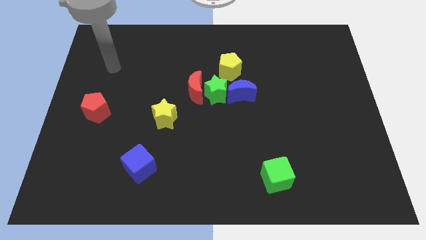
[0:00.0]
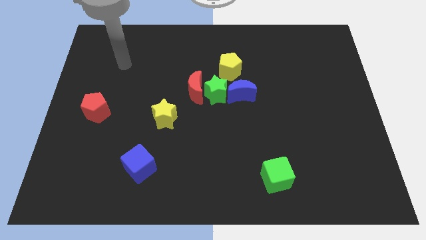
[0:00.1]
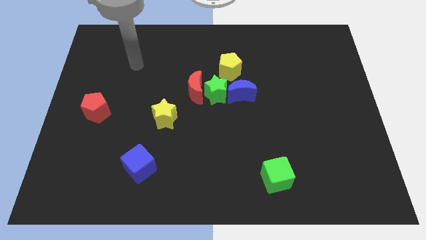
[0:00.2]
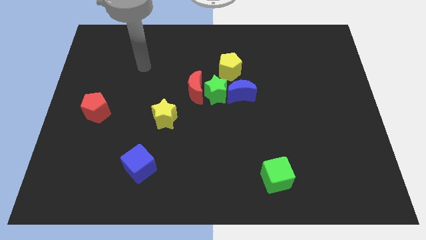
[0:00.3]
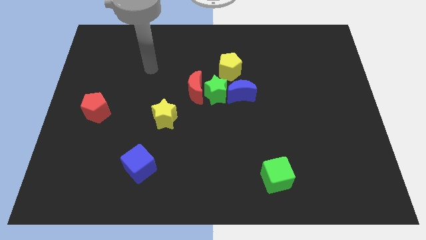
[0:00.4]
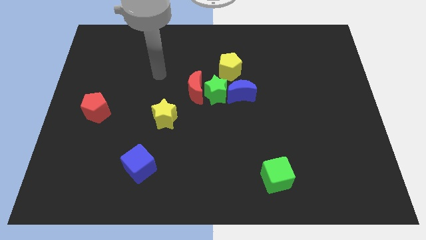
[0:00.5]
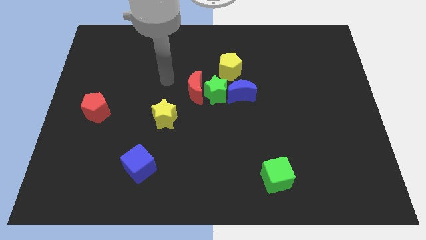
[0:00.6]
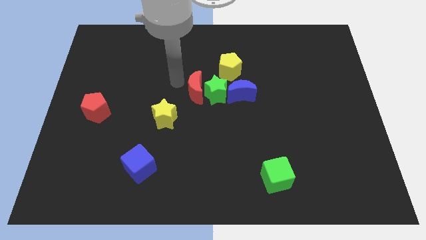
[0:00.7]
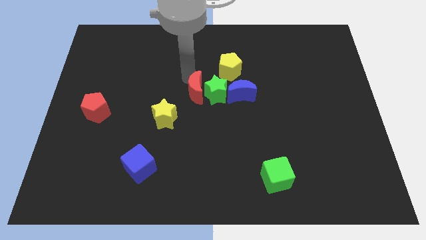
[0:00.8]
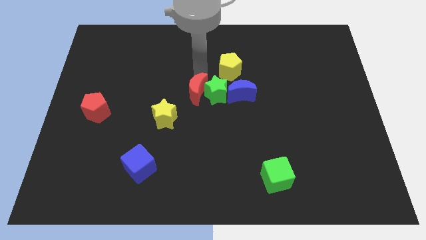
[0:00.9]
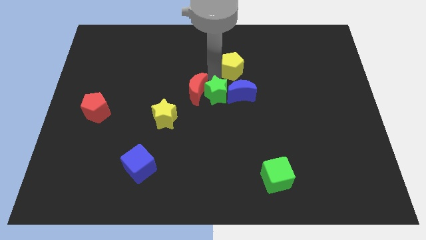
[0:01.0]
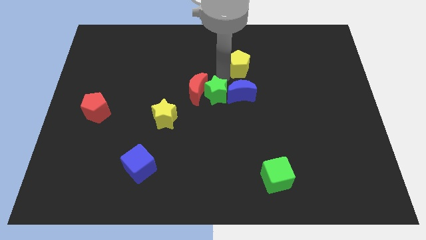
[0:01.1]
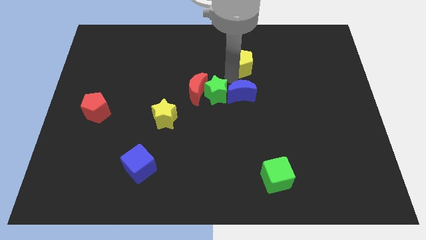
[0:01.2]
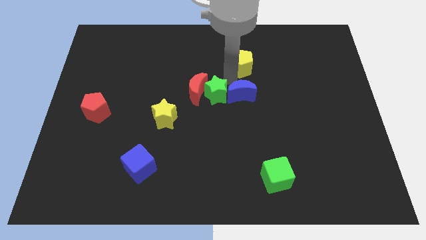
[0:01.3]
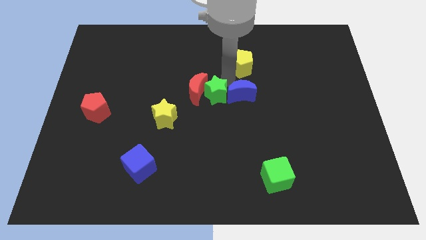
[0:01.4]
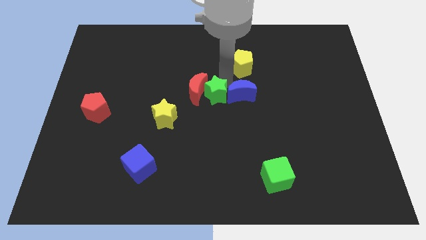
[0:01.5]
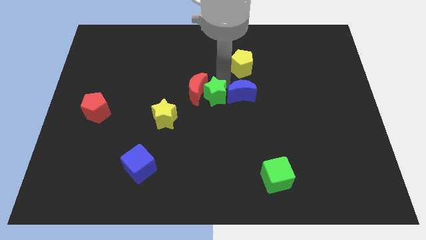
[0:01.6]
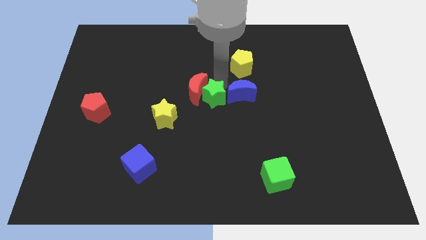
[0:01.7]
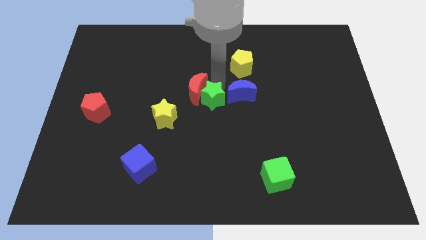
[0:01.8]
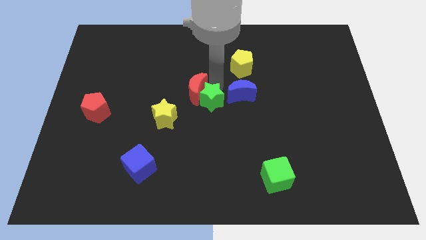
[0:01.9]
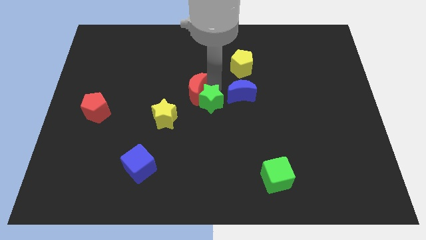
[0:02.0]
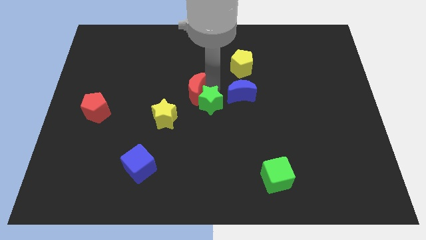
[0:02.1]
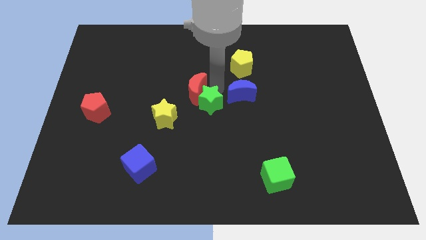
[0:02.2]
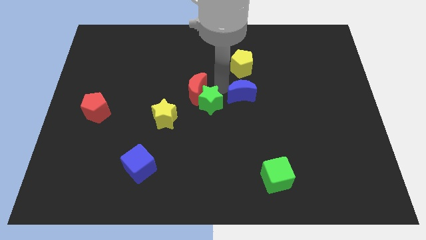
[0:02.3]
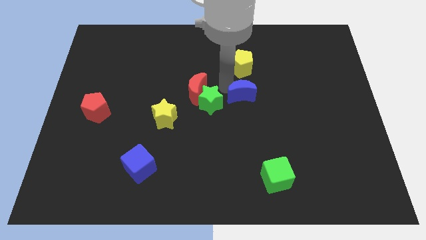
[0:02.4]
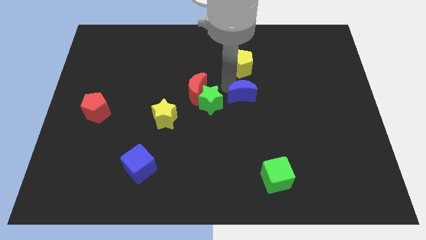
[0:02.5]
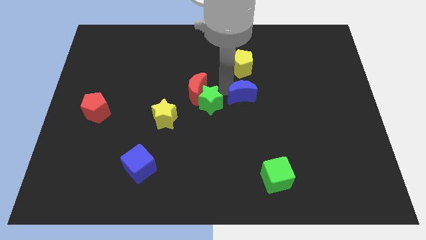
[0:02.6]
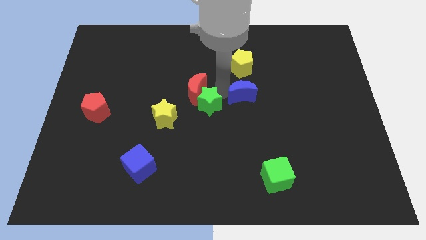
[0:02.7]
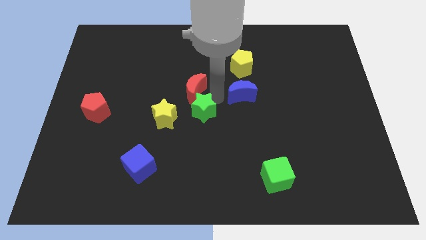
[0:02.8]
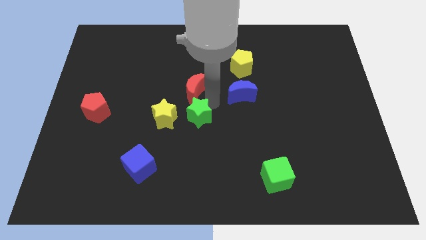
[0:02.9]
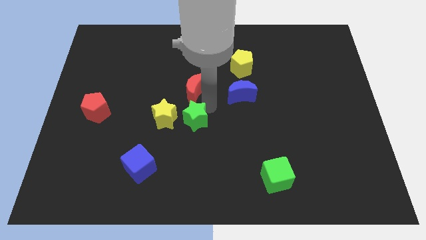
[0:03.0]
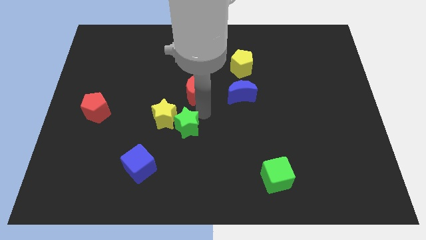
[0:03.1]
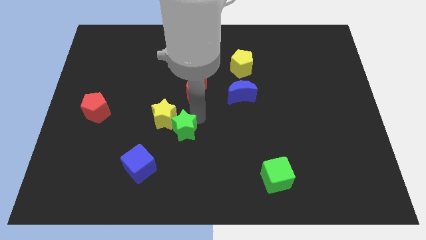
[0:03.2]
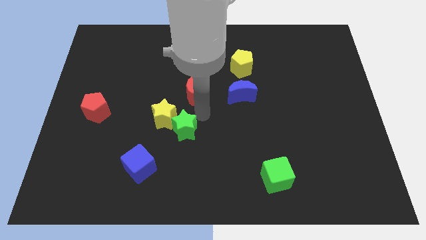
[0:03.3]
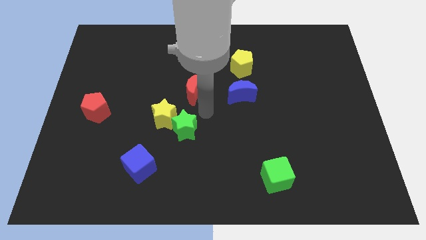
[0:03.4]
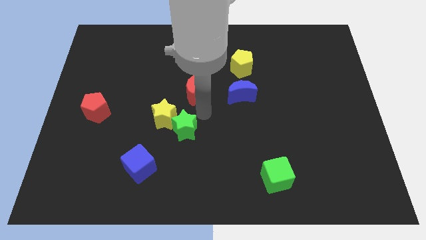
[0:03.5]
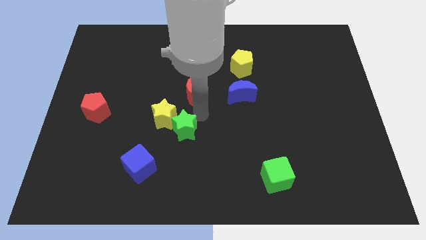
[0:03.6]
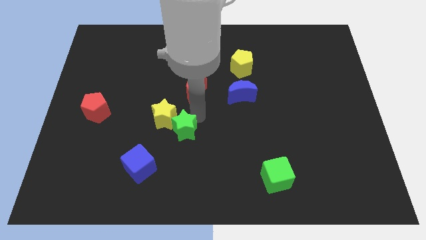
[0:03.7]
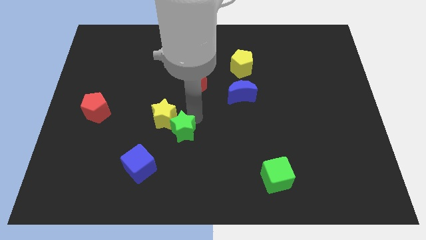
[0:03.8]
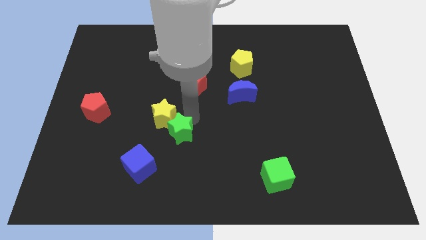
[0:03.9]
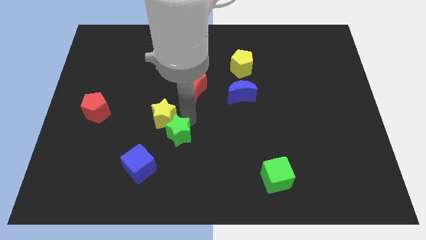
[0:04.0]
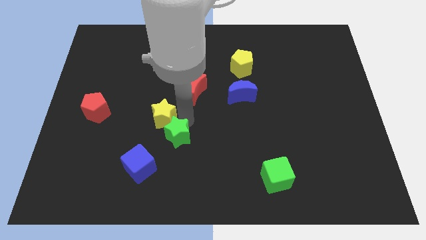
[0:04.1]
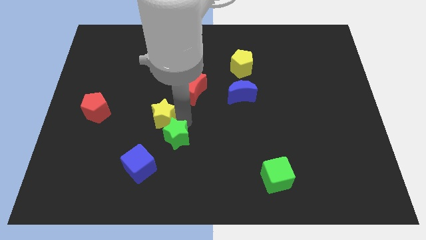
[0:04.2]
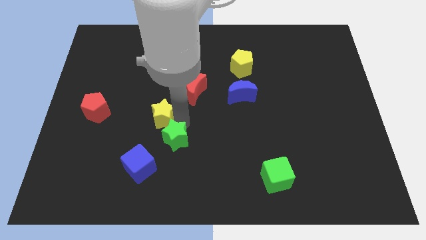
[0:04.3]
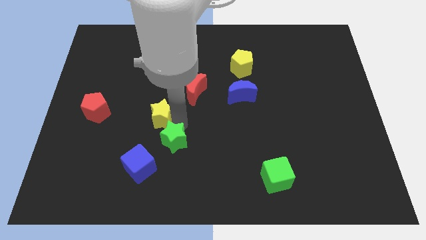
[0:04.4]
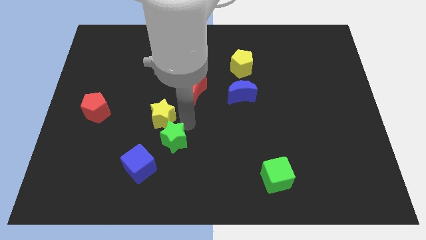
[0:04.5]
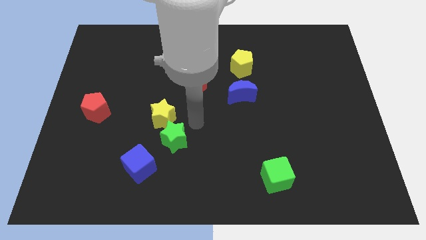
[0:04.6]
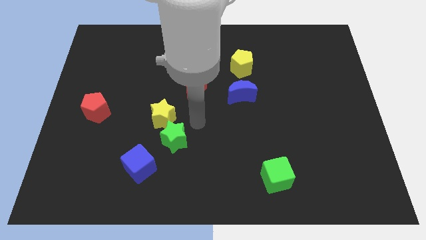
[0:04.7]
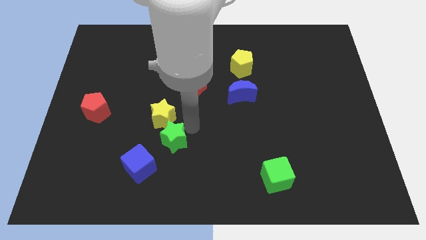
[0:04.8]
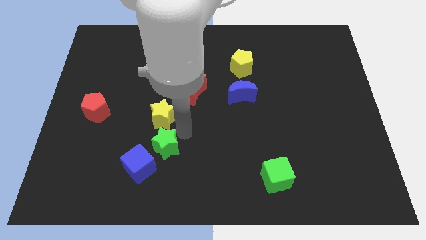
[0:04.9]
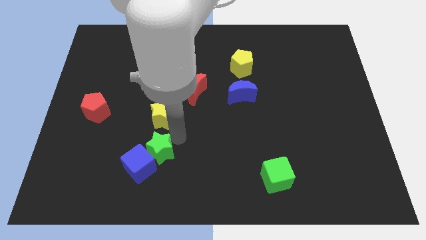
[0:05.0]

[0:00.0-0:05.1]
slide the green star close to the blue cube

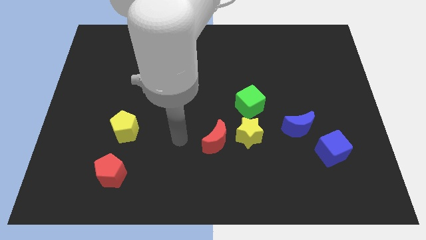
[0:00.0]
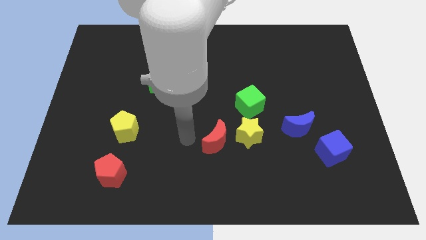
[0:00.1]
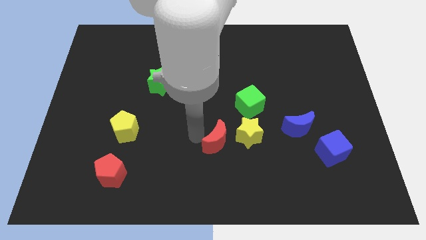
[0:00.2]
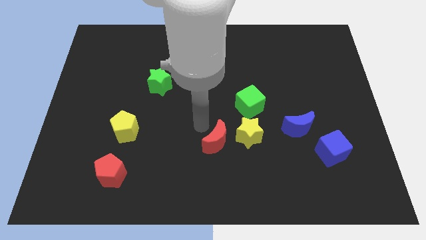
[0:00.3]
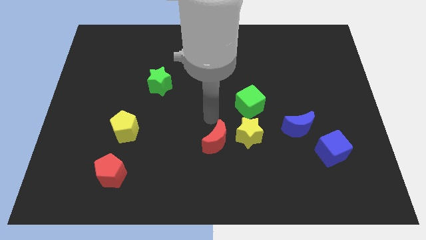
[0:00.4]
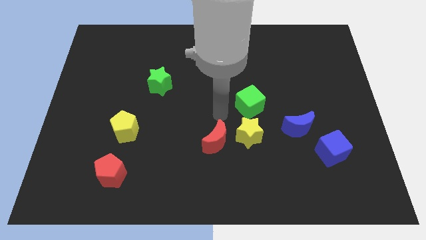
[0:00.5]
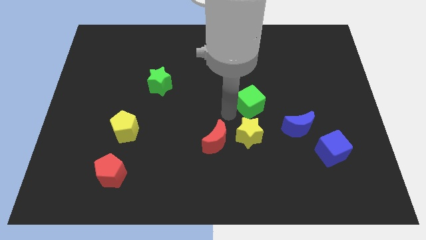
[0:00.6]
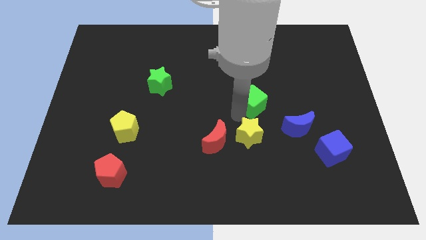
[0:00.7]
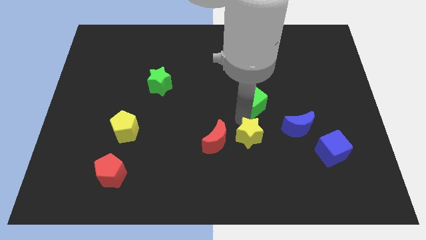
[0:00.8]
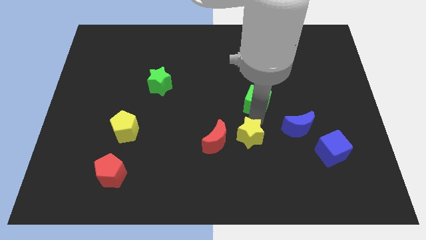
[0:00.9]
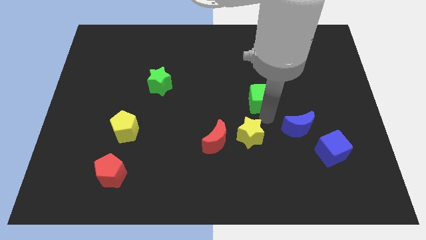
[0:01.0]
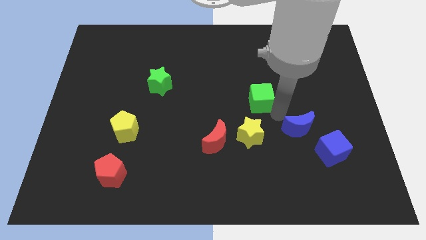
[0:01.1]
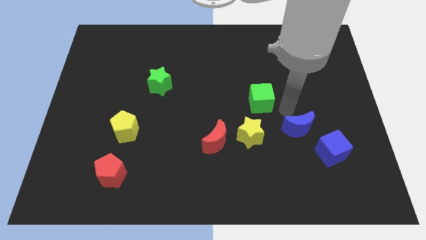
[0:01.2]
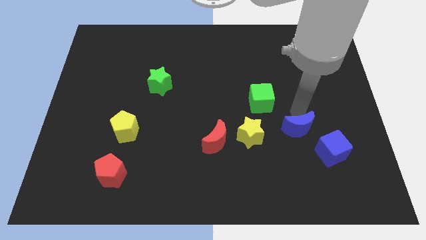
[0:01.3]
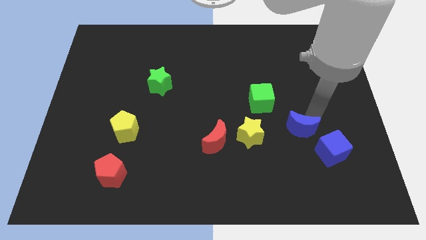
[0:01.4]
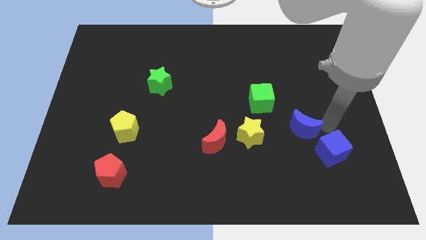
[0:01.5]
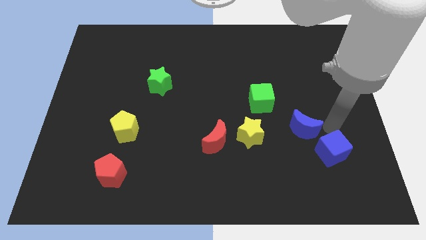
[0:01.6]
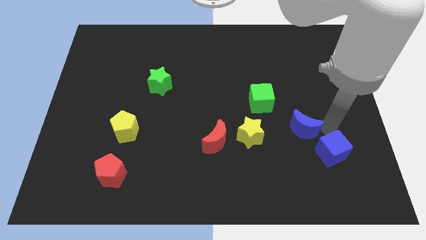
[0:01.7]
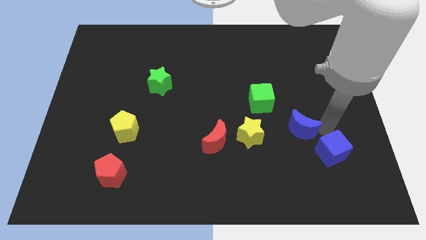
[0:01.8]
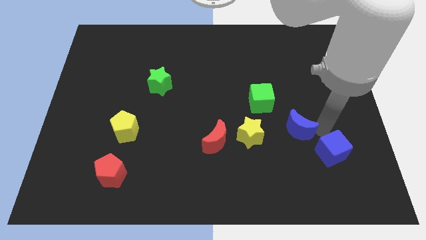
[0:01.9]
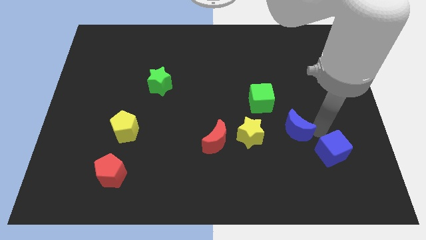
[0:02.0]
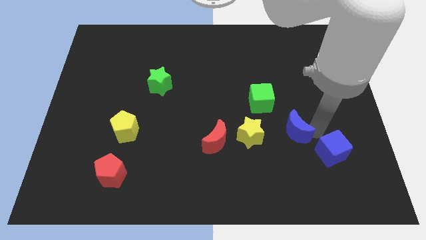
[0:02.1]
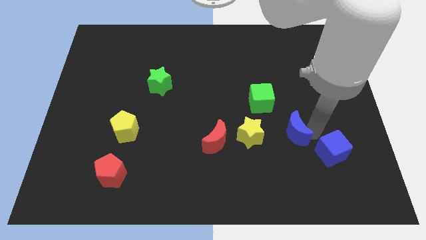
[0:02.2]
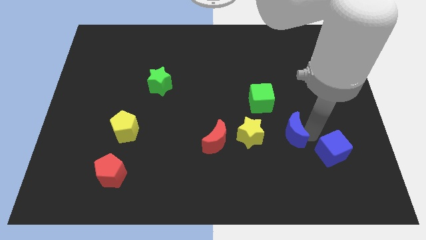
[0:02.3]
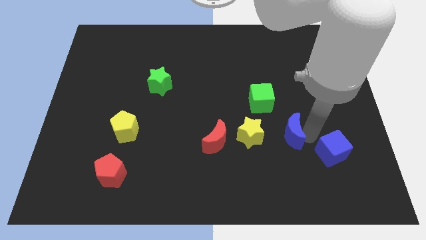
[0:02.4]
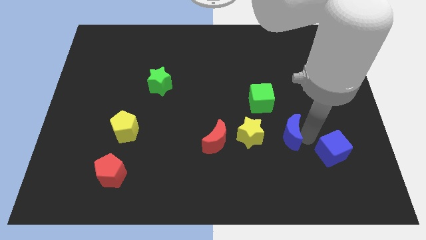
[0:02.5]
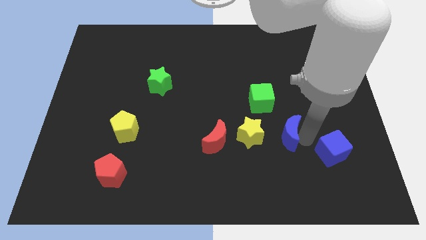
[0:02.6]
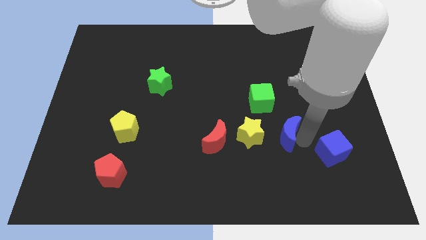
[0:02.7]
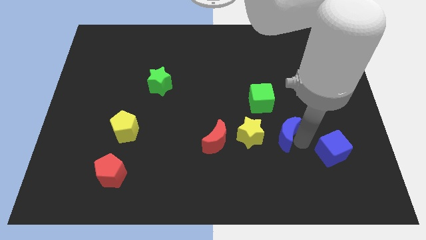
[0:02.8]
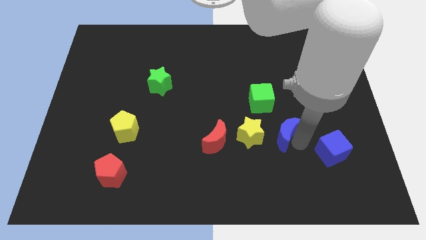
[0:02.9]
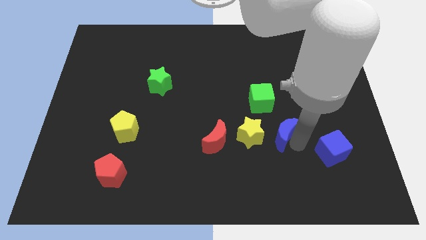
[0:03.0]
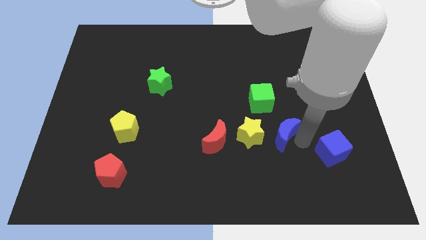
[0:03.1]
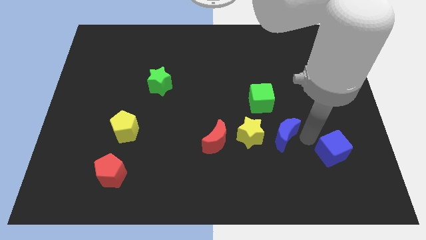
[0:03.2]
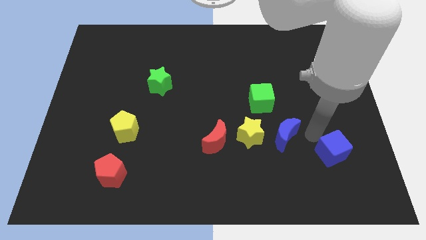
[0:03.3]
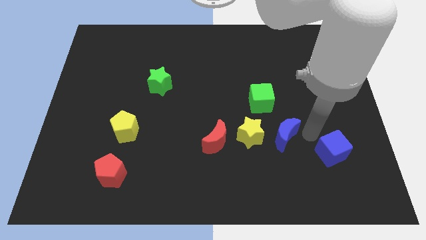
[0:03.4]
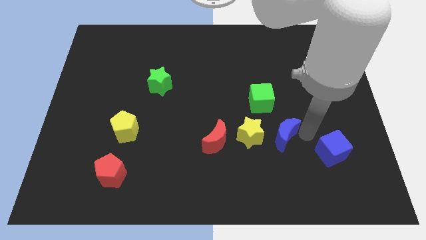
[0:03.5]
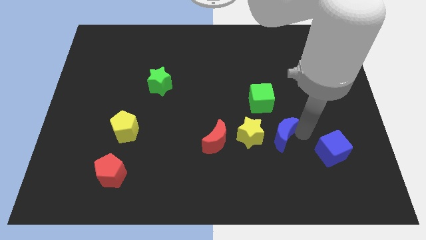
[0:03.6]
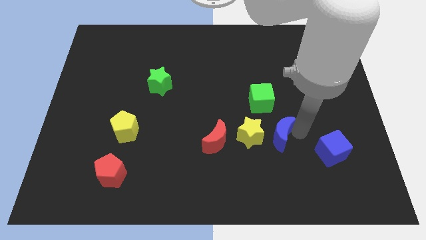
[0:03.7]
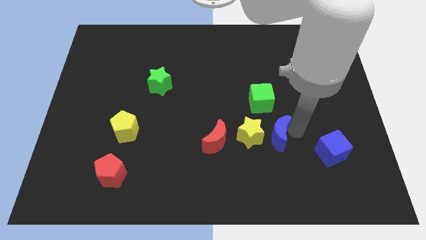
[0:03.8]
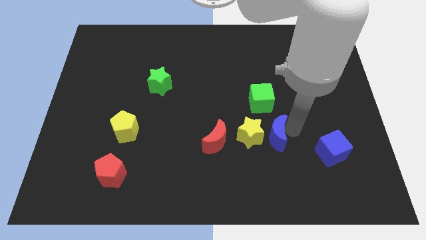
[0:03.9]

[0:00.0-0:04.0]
move the blue moon close to the yellow star
